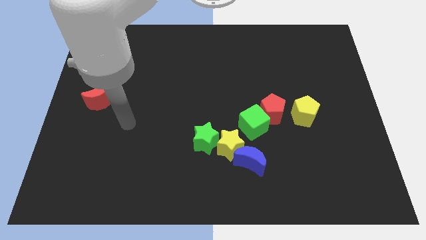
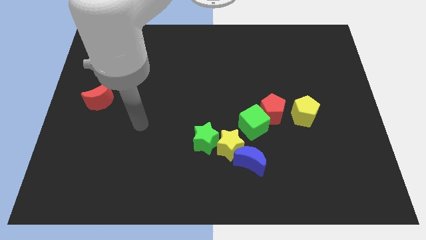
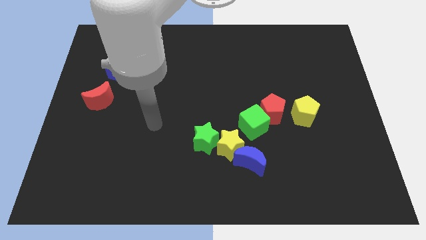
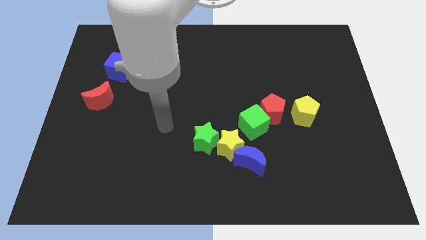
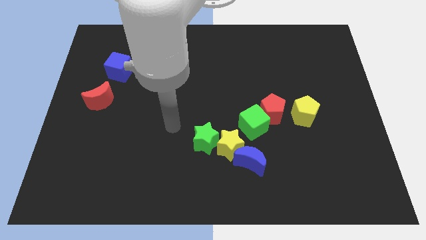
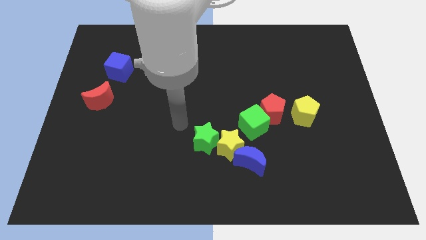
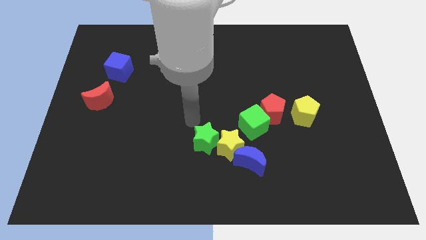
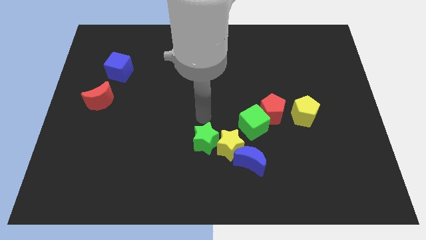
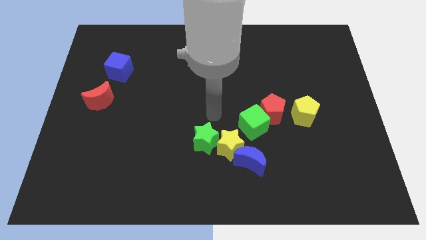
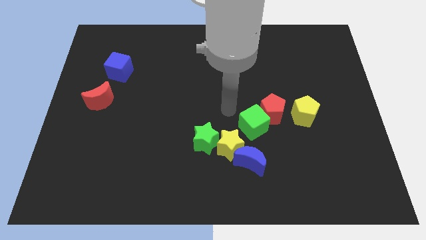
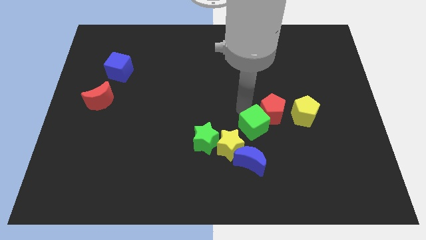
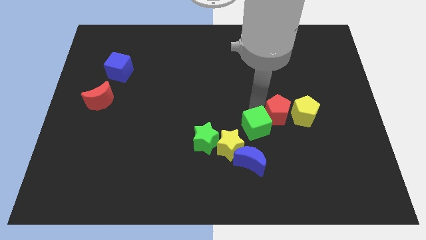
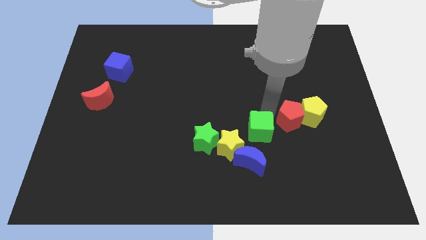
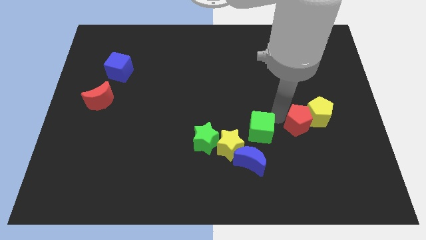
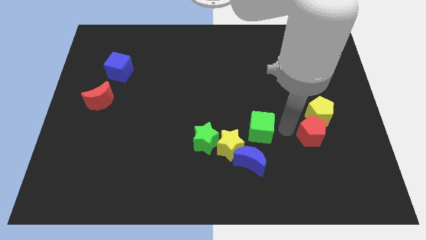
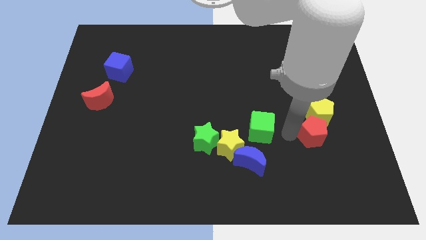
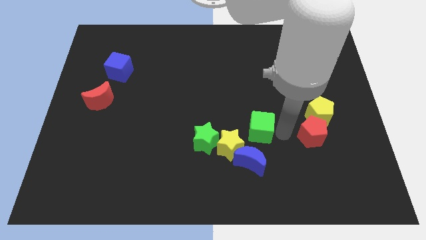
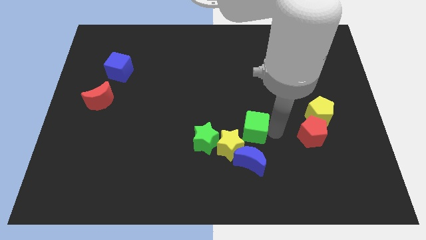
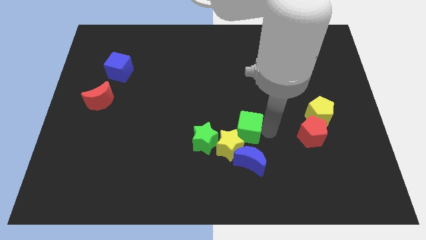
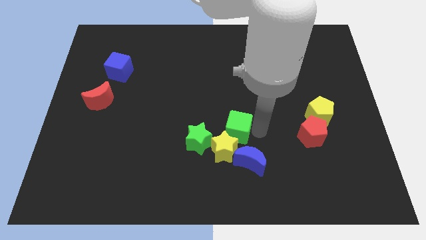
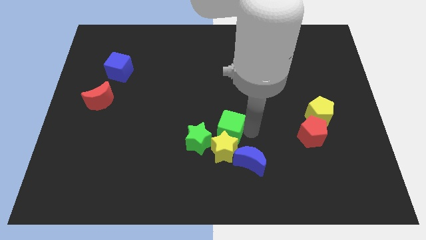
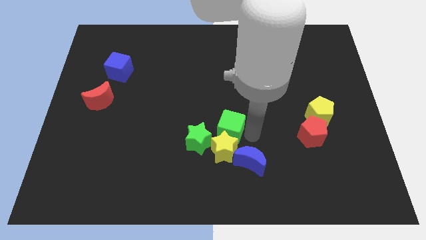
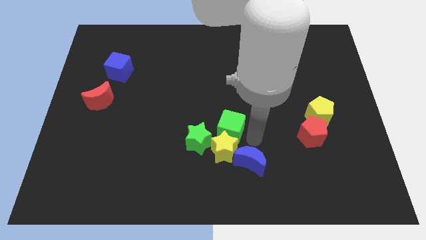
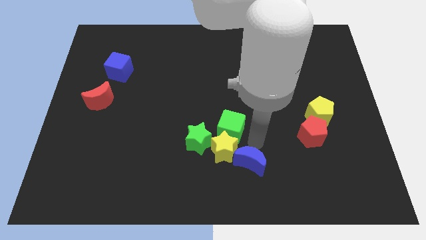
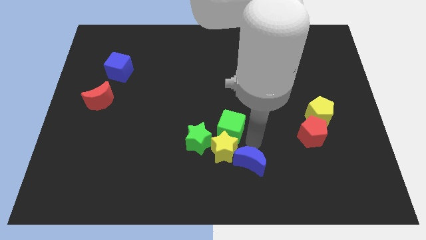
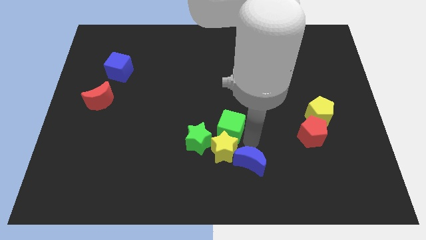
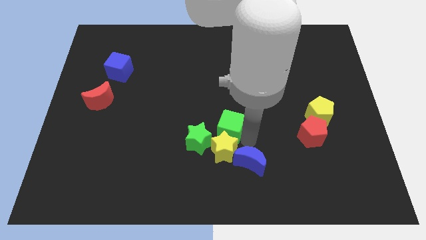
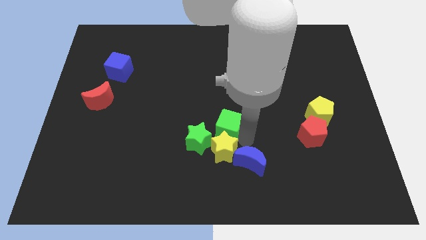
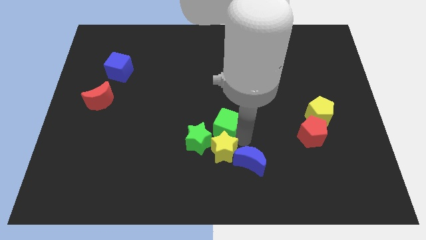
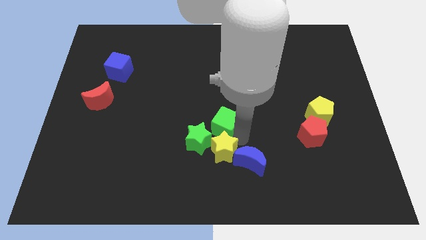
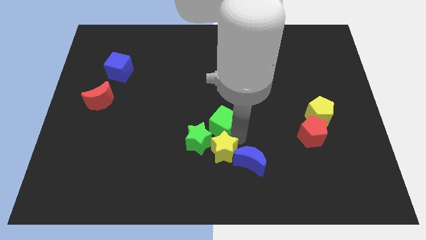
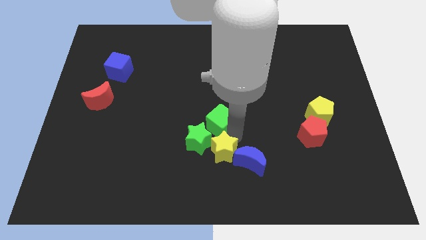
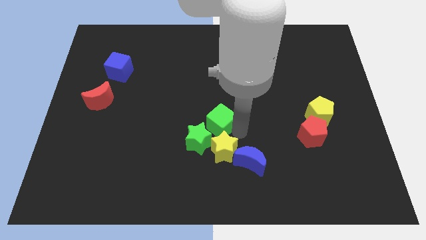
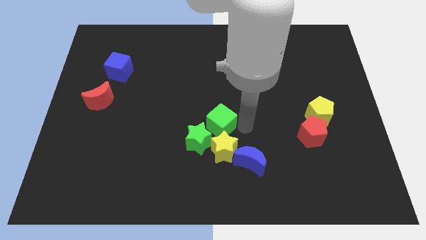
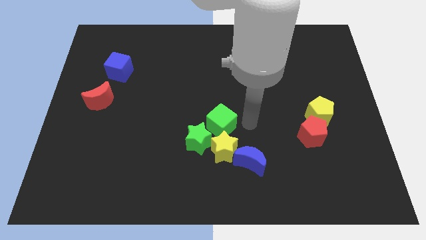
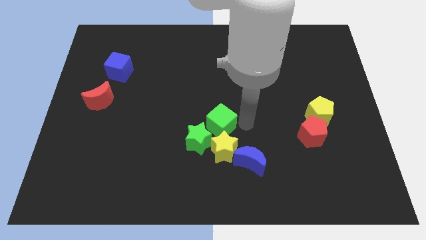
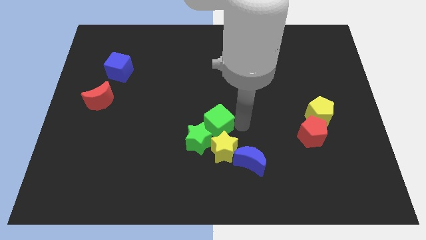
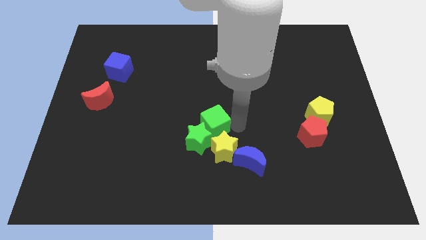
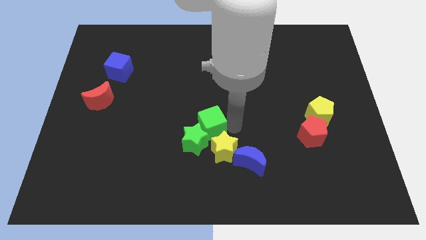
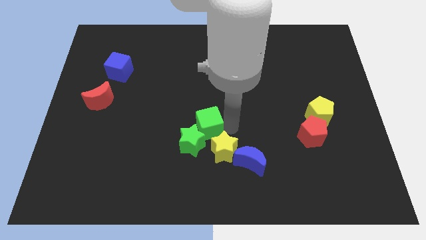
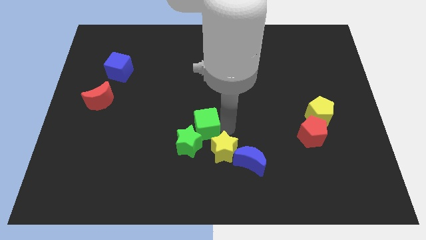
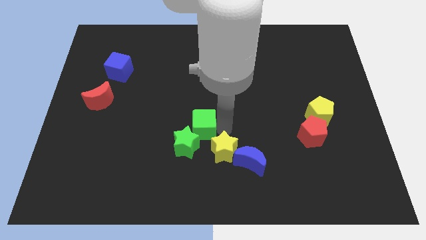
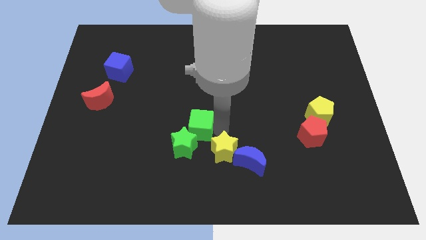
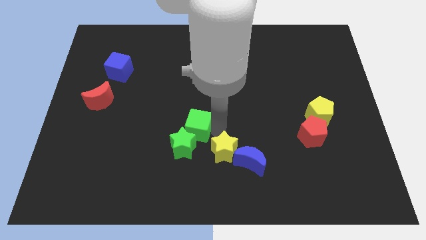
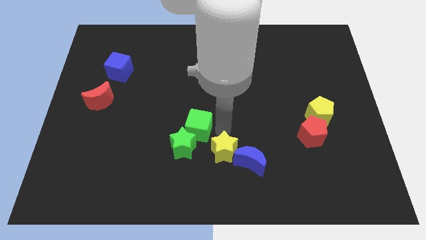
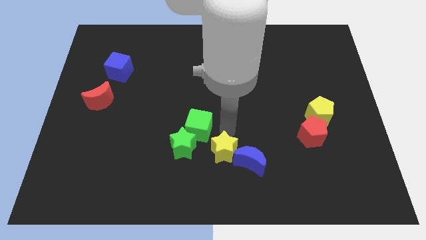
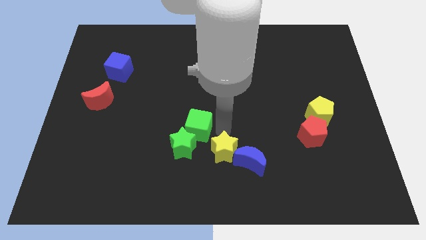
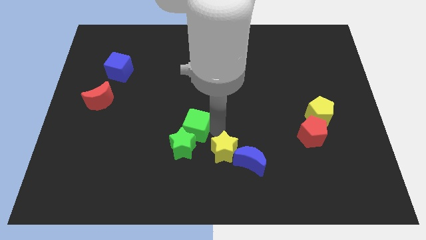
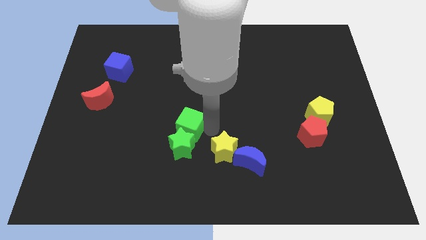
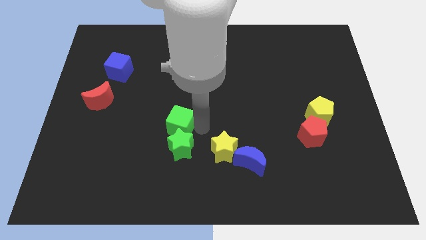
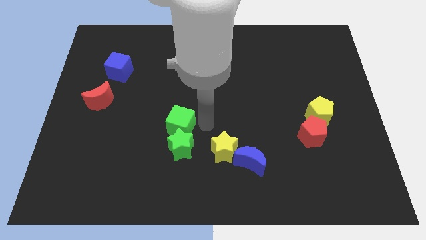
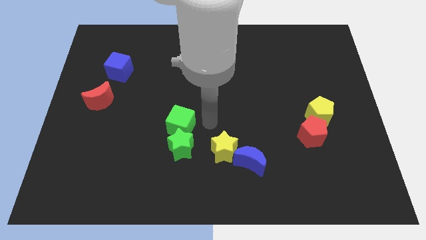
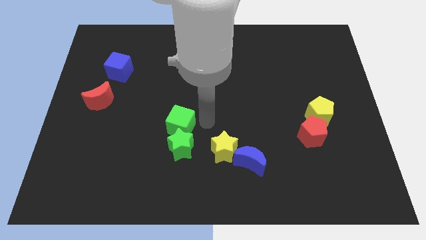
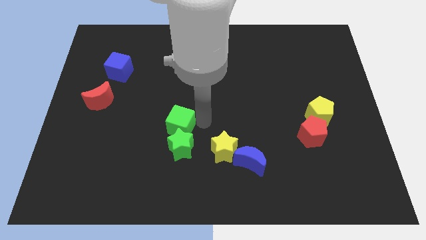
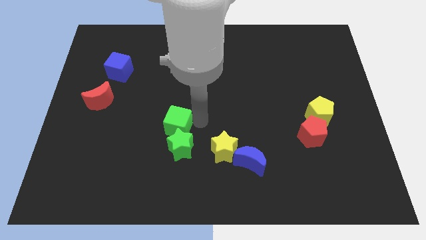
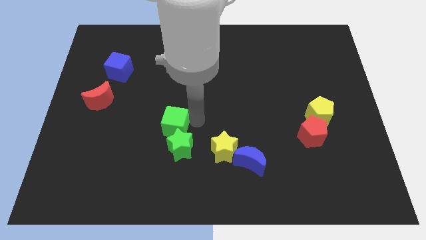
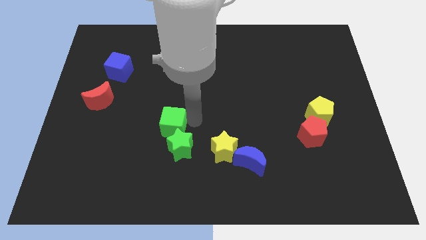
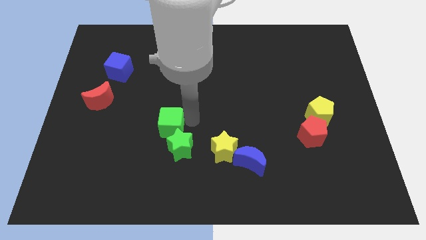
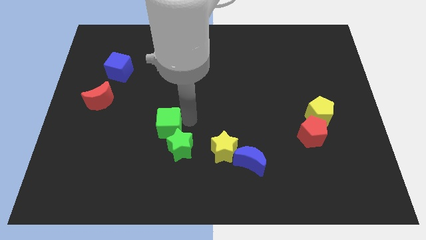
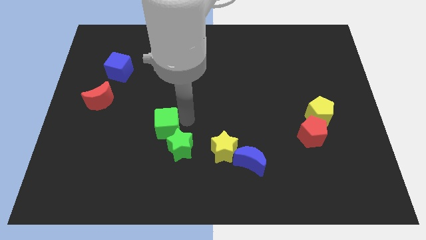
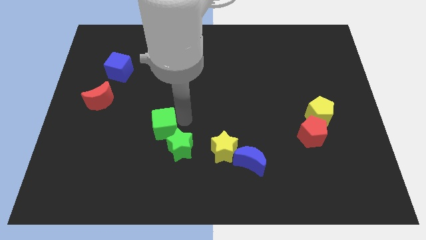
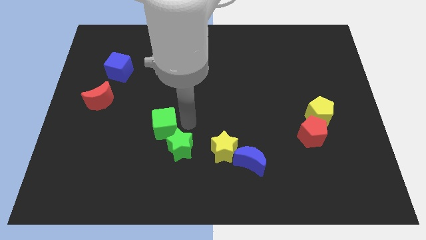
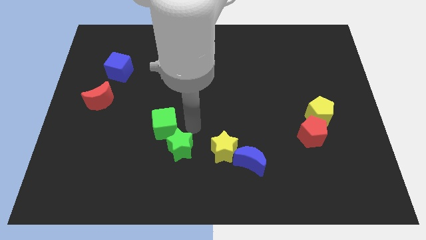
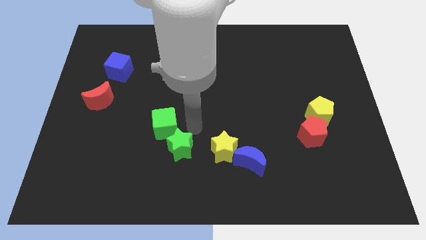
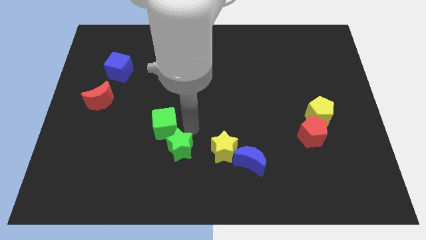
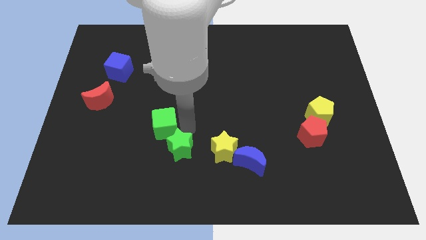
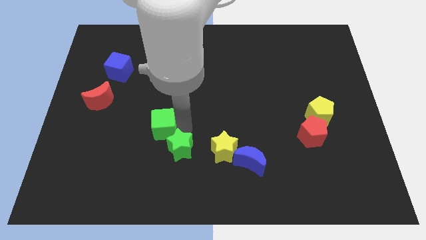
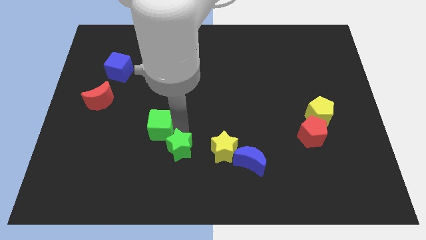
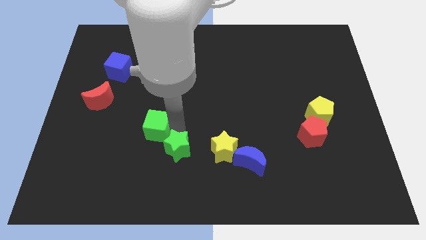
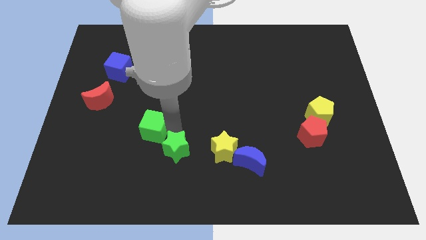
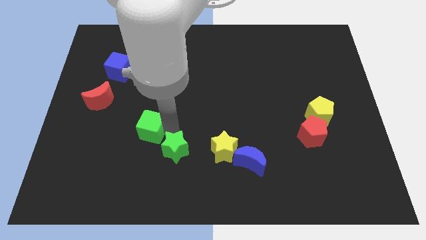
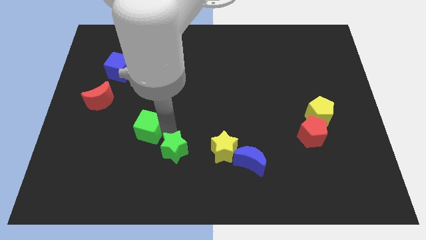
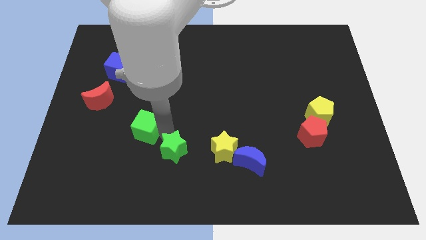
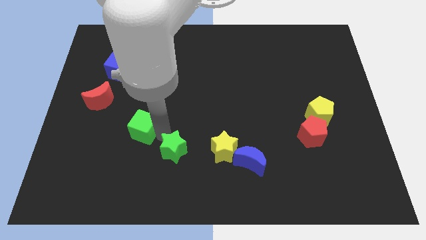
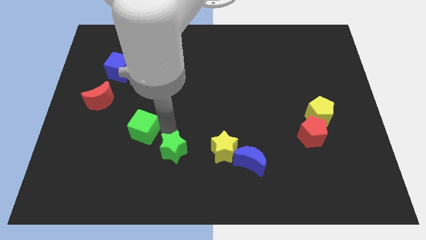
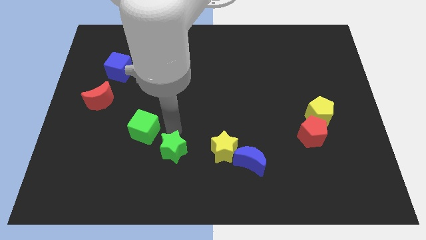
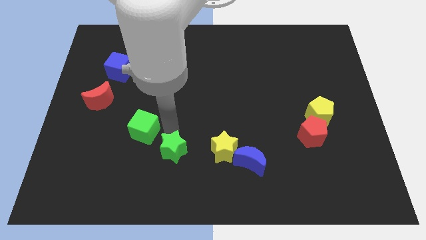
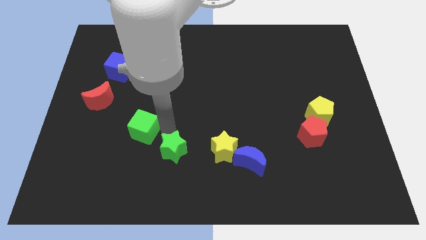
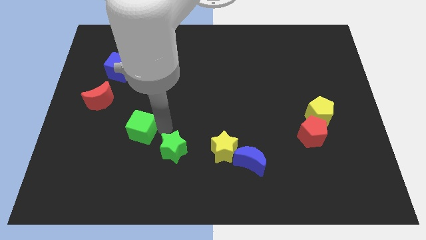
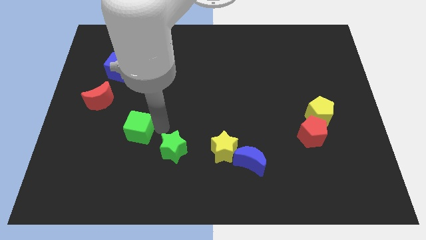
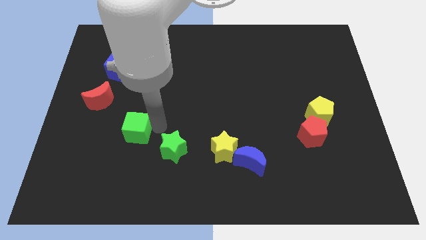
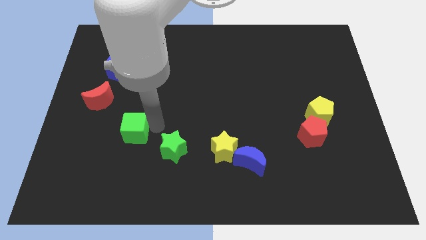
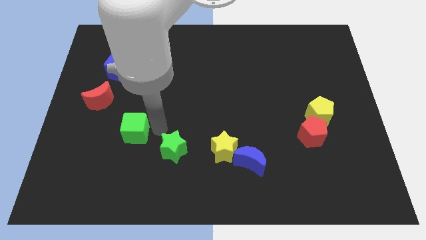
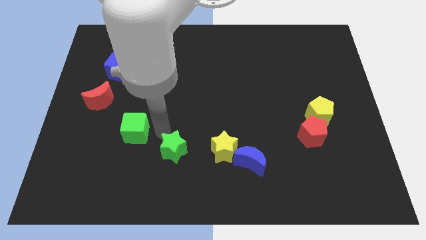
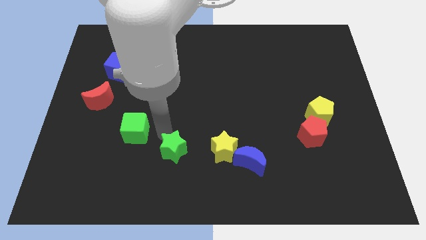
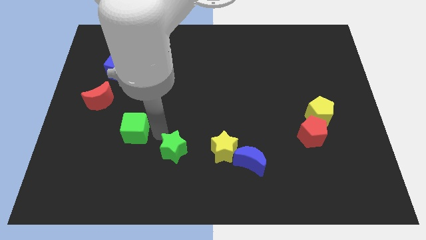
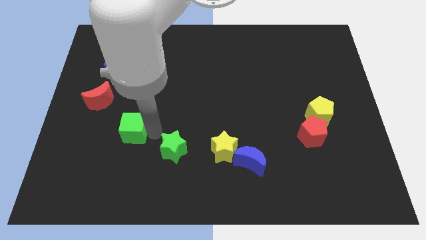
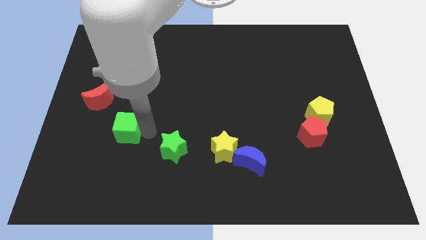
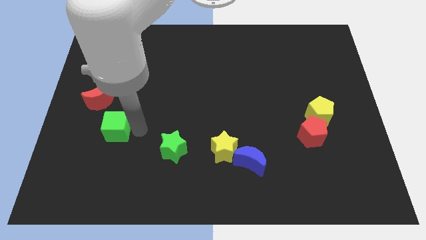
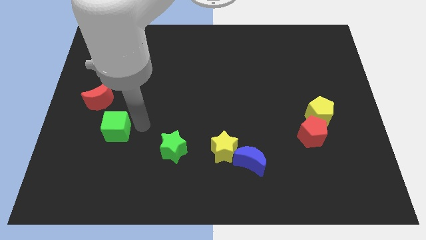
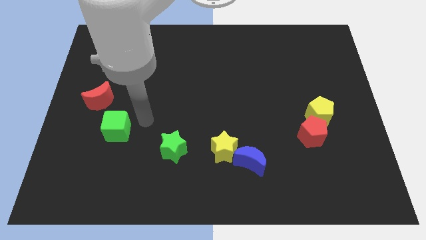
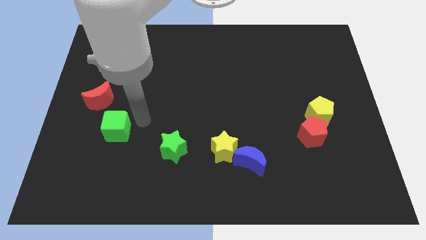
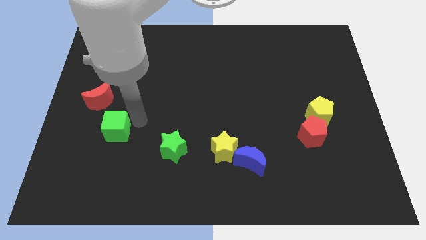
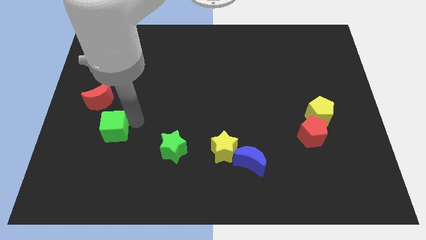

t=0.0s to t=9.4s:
slide the green cube to the bottom of the red moon
